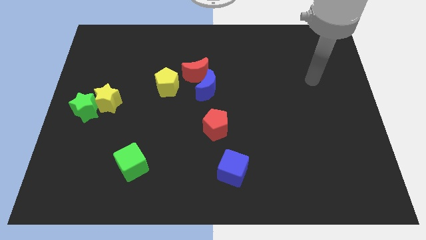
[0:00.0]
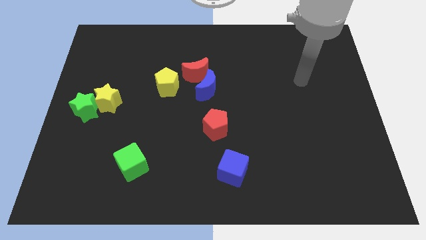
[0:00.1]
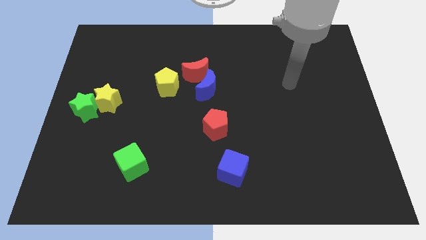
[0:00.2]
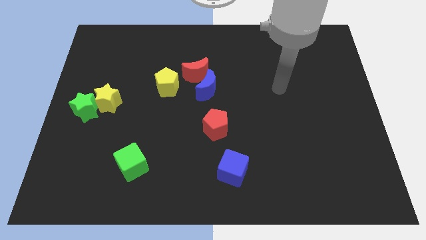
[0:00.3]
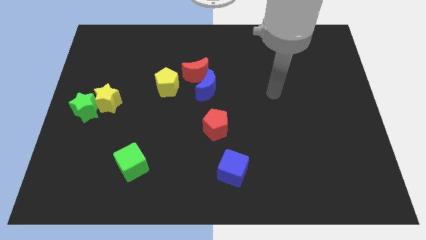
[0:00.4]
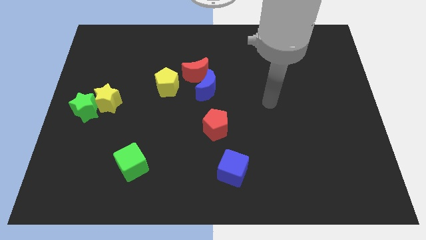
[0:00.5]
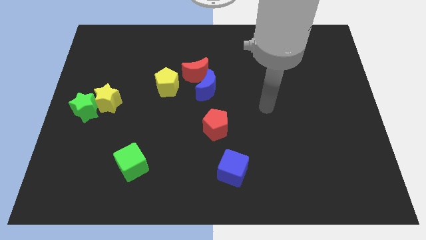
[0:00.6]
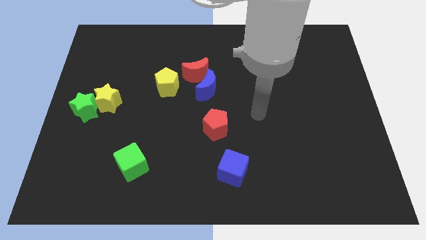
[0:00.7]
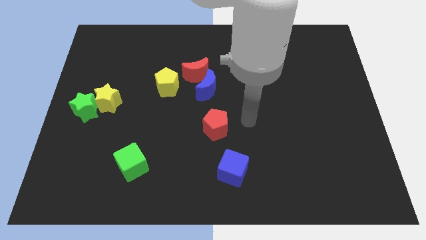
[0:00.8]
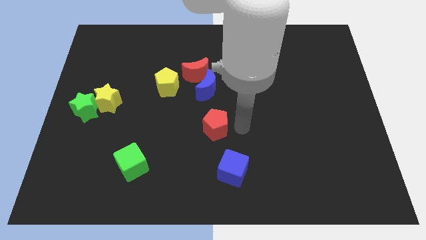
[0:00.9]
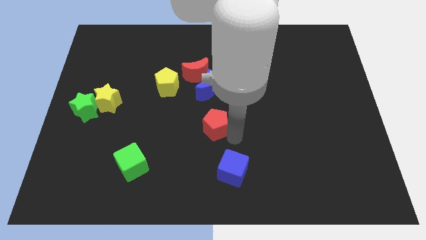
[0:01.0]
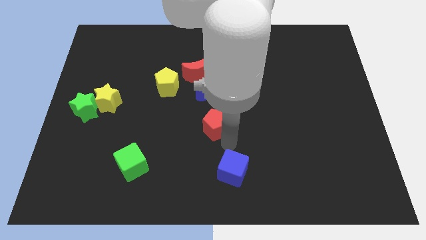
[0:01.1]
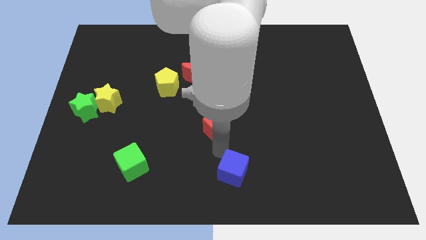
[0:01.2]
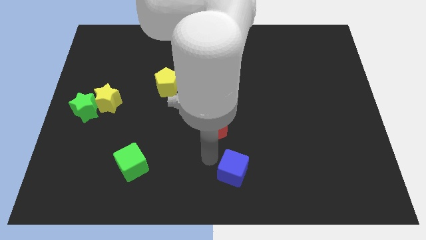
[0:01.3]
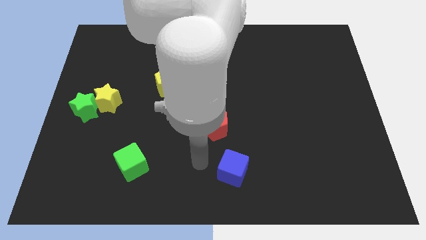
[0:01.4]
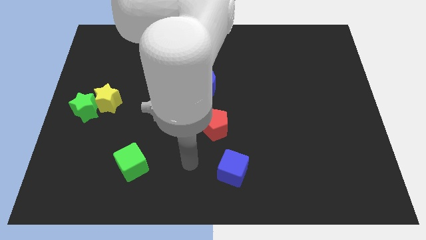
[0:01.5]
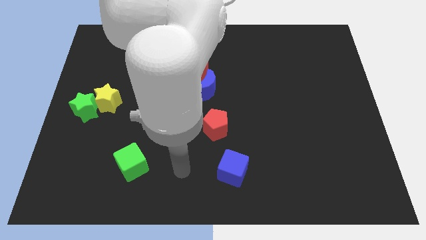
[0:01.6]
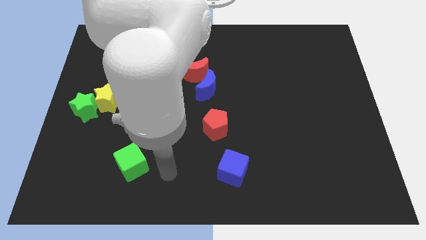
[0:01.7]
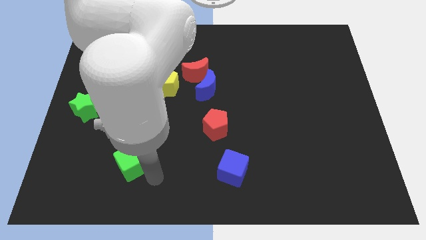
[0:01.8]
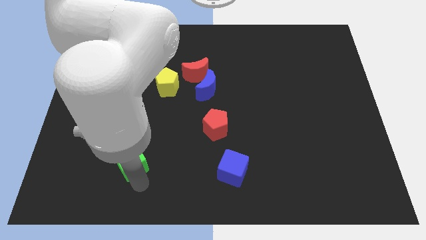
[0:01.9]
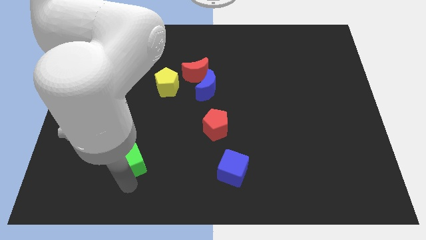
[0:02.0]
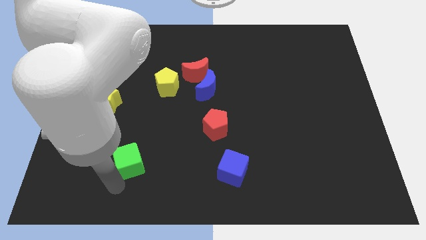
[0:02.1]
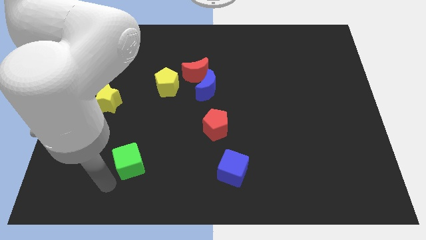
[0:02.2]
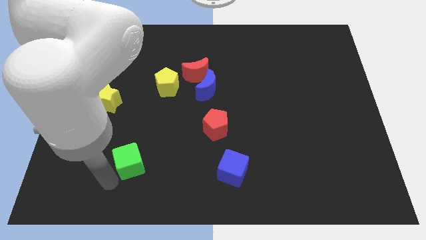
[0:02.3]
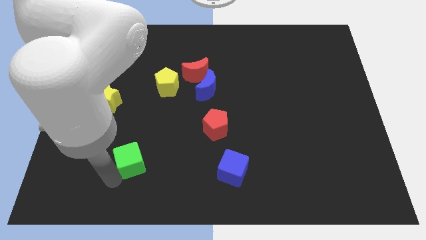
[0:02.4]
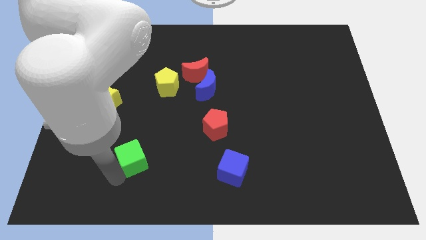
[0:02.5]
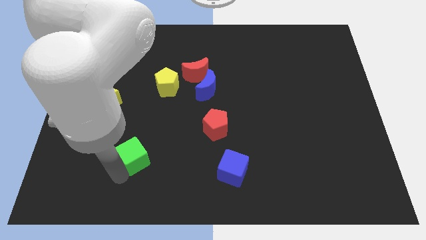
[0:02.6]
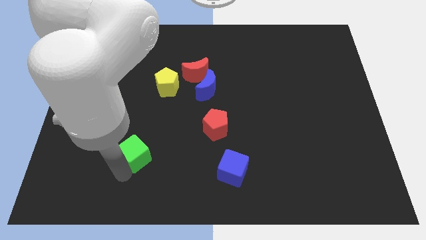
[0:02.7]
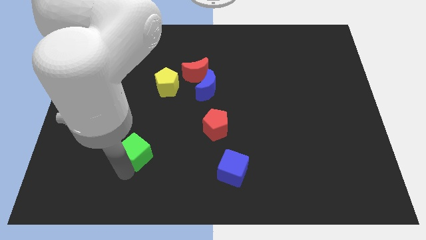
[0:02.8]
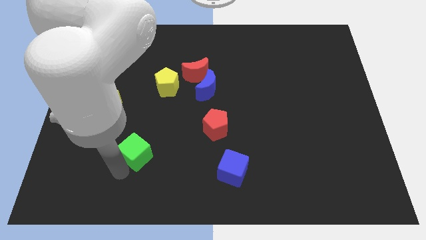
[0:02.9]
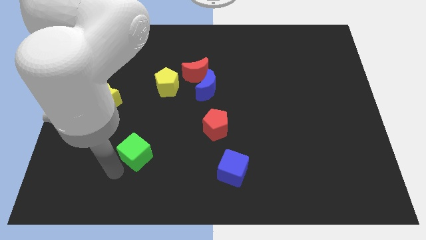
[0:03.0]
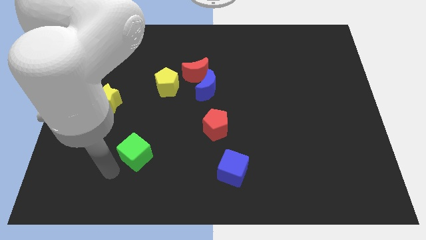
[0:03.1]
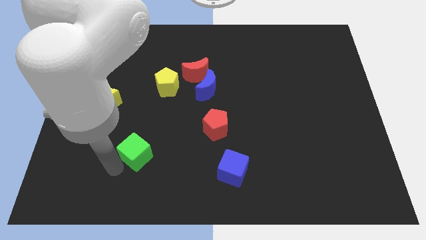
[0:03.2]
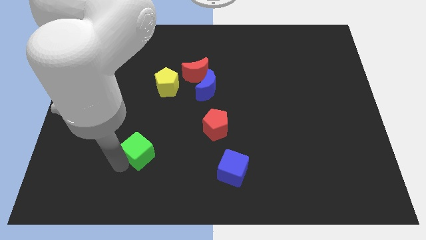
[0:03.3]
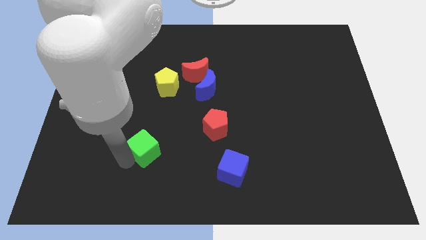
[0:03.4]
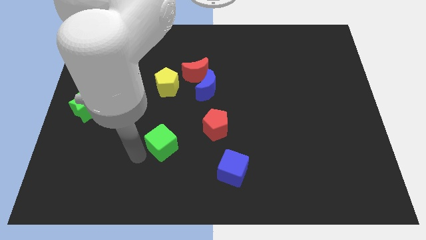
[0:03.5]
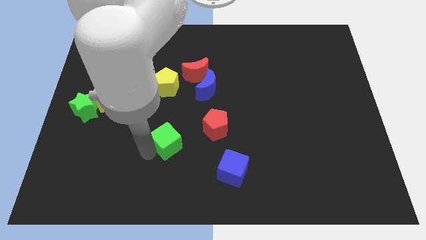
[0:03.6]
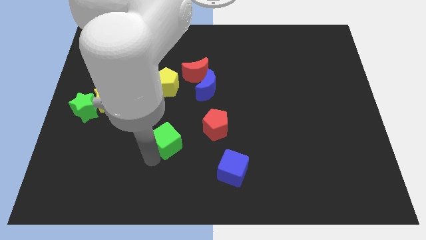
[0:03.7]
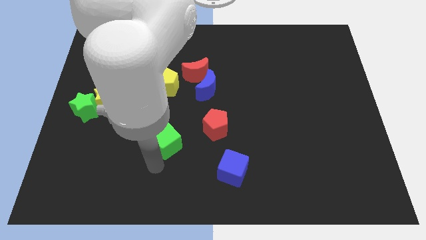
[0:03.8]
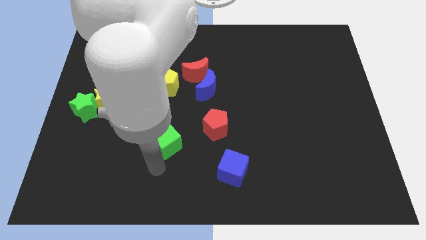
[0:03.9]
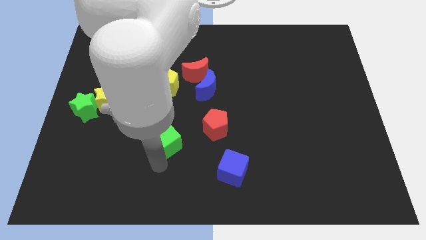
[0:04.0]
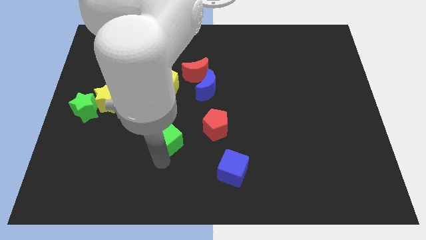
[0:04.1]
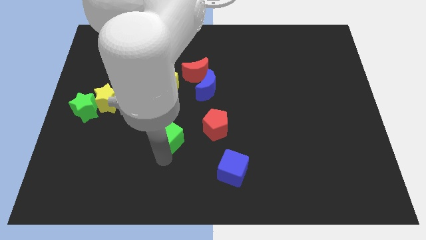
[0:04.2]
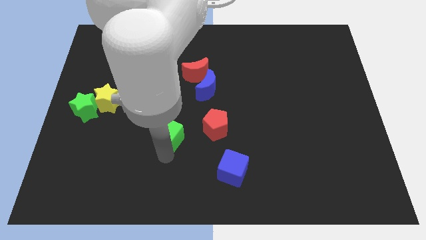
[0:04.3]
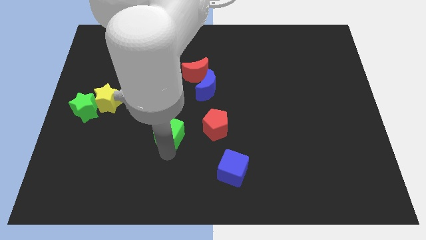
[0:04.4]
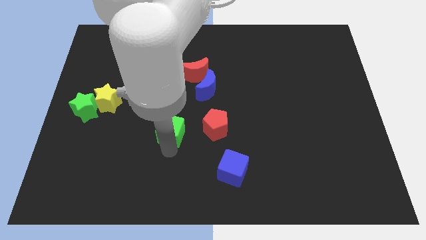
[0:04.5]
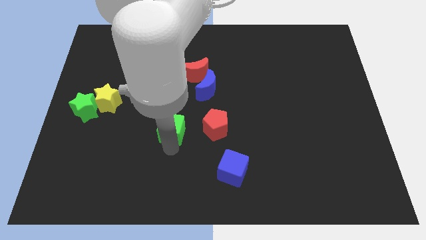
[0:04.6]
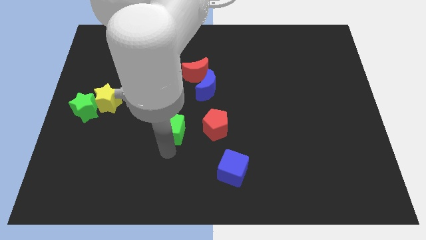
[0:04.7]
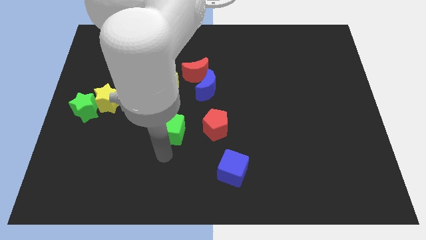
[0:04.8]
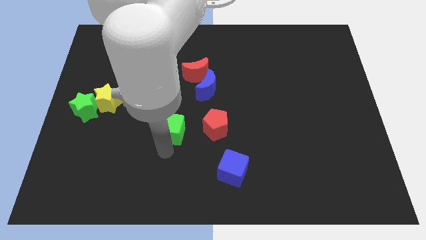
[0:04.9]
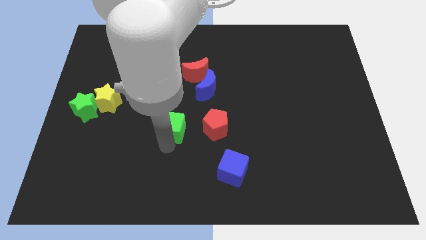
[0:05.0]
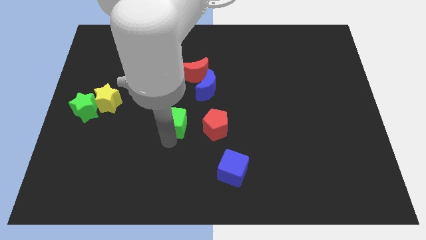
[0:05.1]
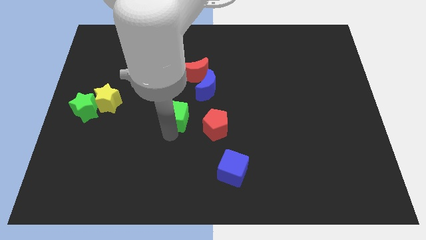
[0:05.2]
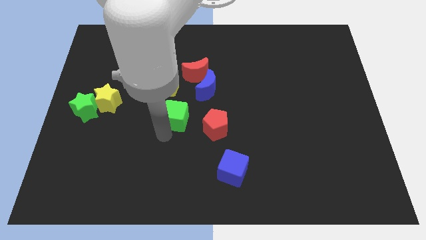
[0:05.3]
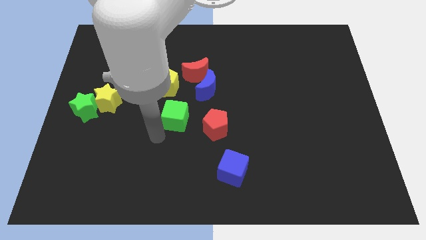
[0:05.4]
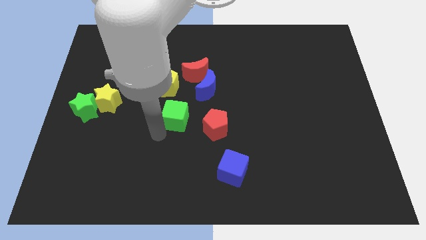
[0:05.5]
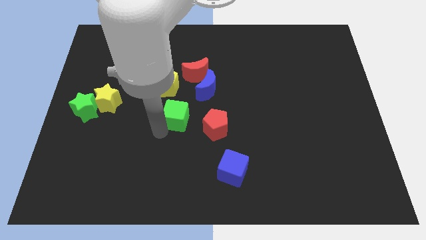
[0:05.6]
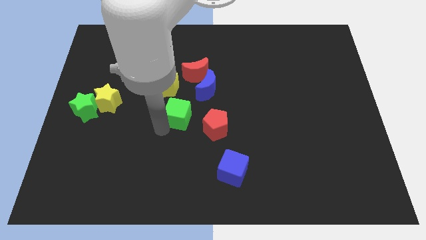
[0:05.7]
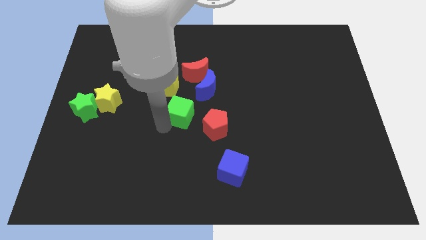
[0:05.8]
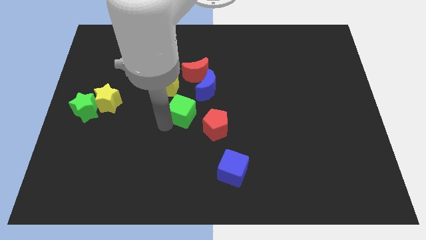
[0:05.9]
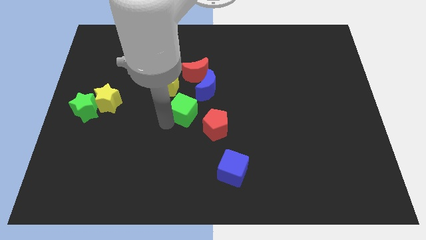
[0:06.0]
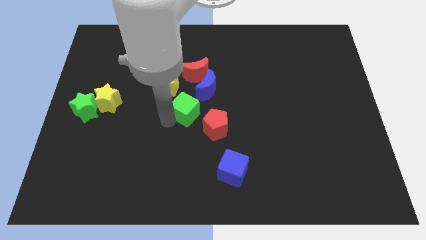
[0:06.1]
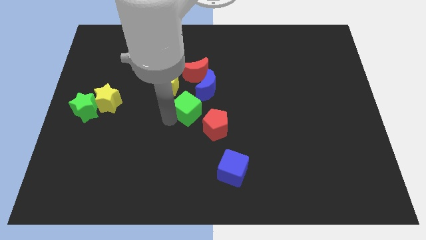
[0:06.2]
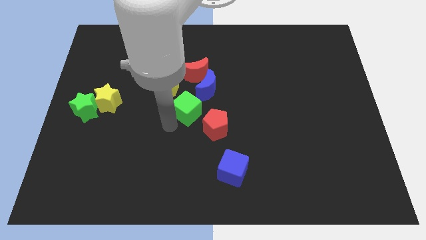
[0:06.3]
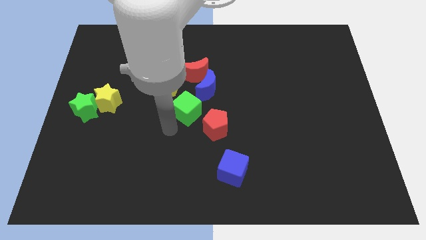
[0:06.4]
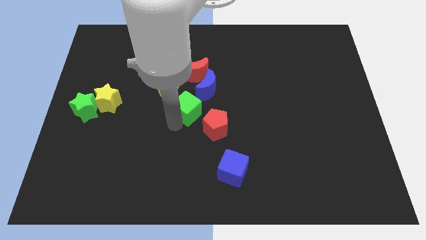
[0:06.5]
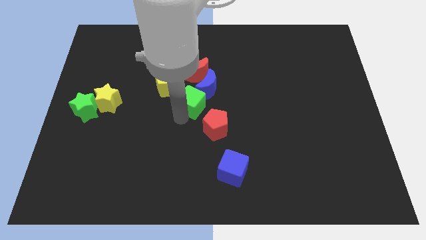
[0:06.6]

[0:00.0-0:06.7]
slide the green cube close to the blue moon

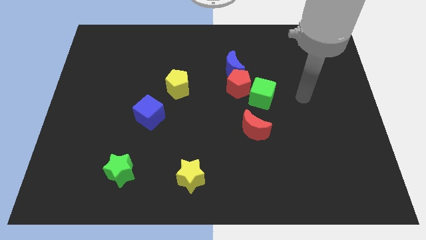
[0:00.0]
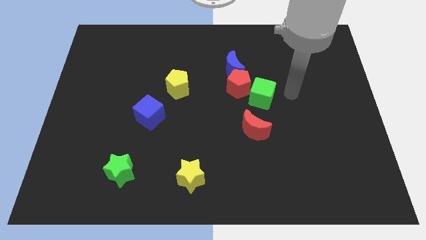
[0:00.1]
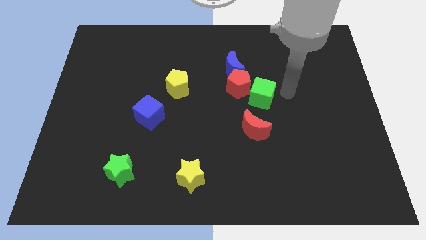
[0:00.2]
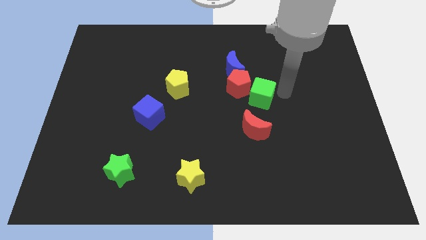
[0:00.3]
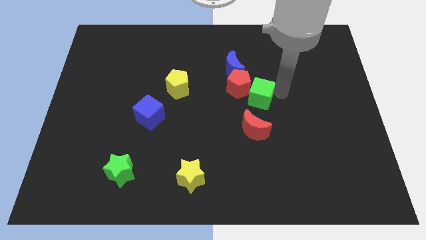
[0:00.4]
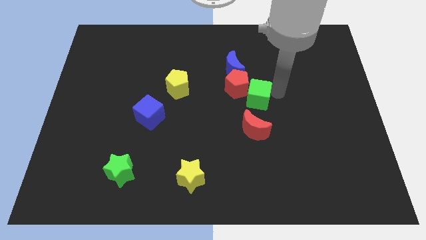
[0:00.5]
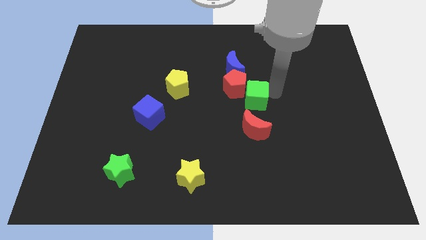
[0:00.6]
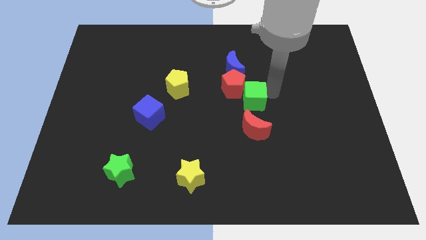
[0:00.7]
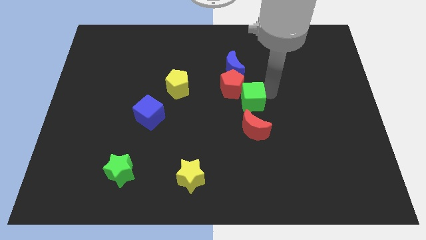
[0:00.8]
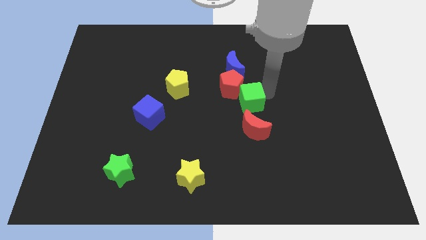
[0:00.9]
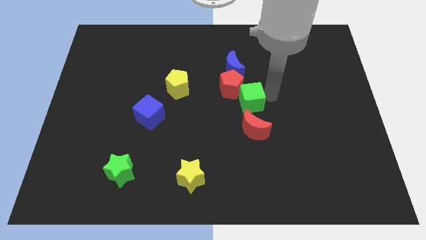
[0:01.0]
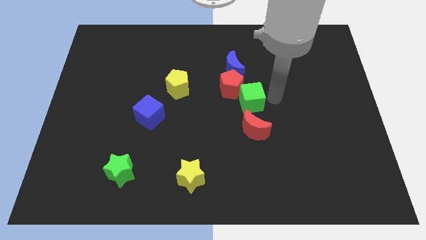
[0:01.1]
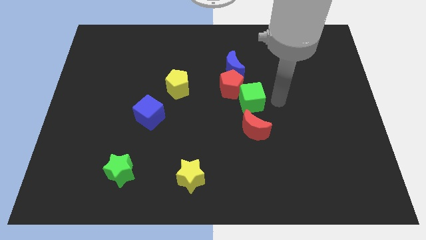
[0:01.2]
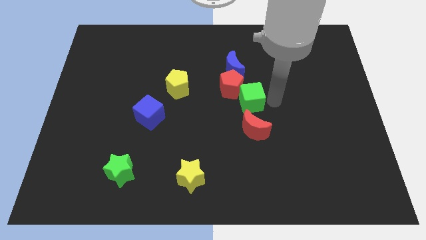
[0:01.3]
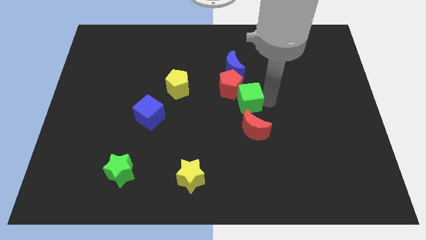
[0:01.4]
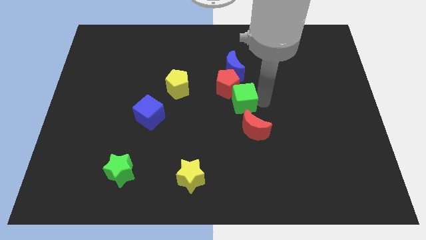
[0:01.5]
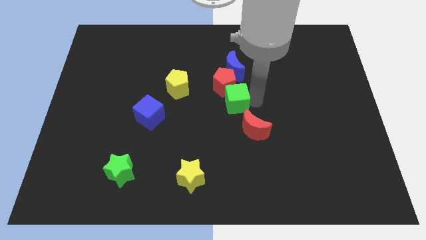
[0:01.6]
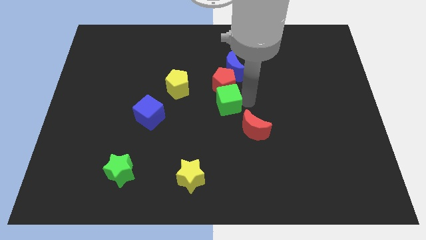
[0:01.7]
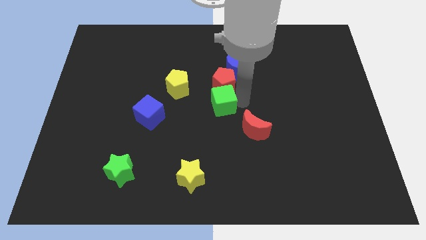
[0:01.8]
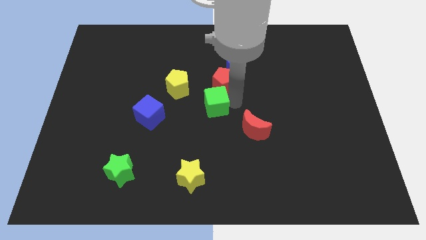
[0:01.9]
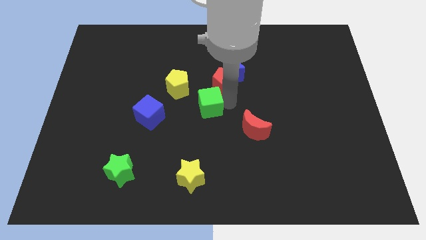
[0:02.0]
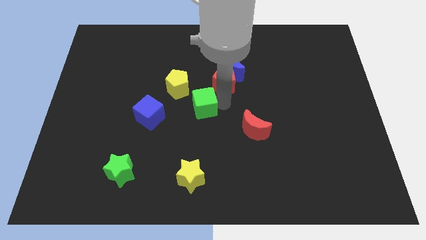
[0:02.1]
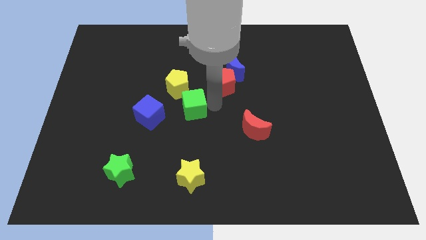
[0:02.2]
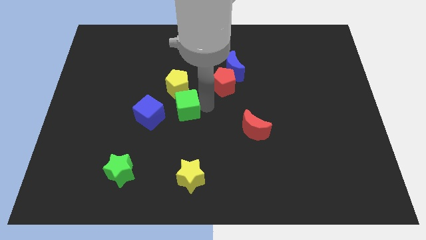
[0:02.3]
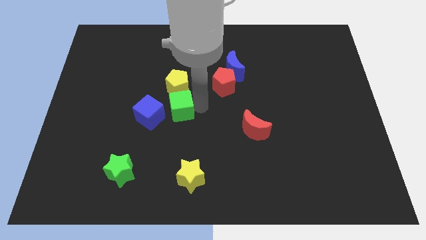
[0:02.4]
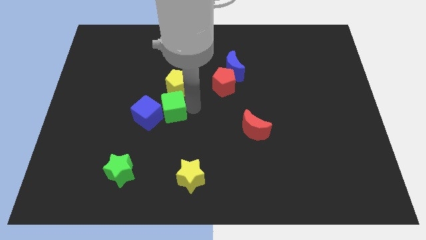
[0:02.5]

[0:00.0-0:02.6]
slide the green cube close to the blue cube
